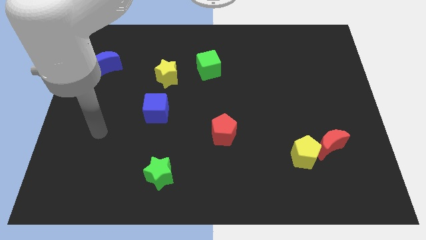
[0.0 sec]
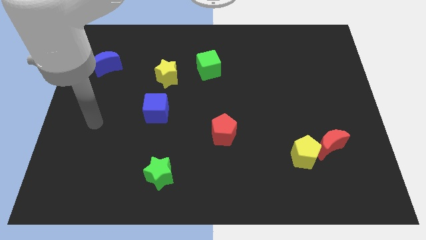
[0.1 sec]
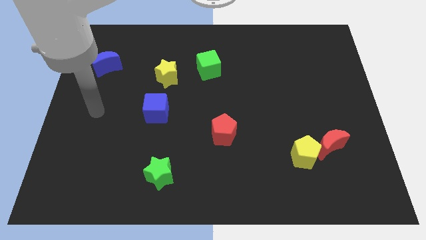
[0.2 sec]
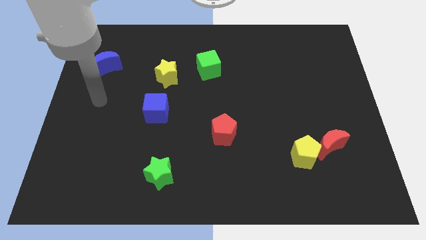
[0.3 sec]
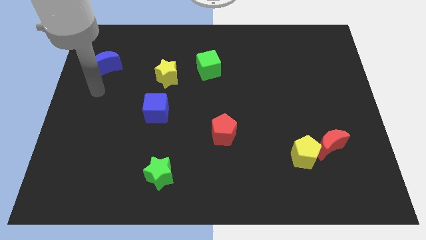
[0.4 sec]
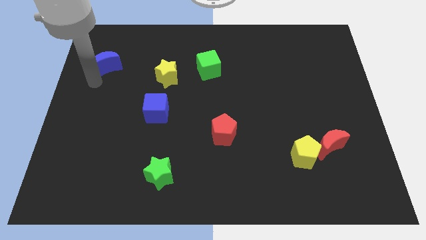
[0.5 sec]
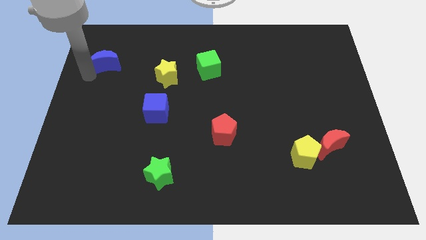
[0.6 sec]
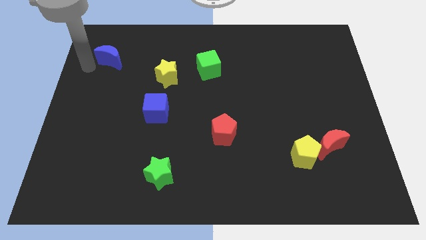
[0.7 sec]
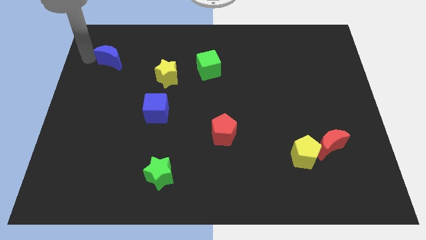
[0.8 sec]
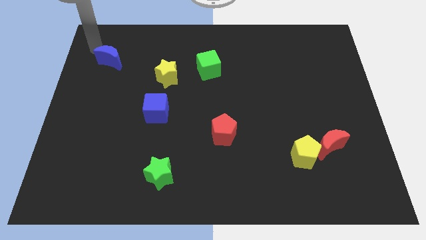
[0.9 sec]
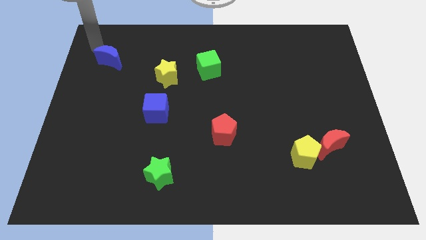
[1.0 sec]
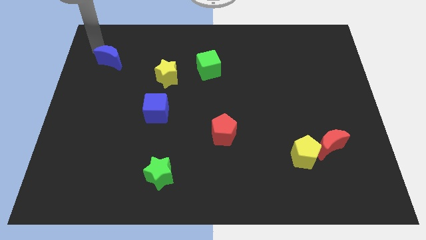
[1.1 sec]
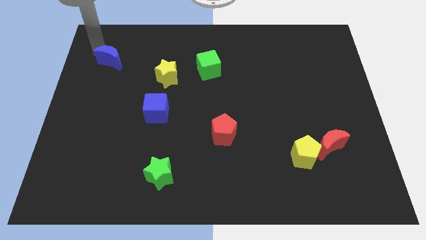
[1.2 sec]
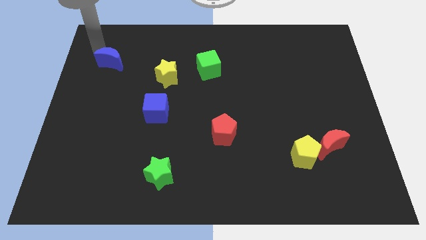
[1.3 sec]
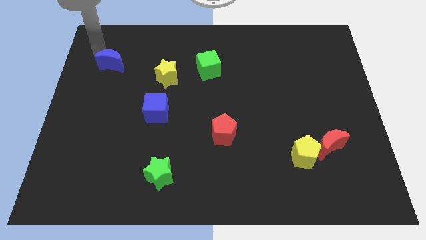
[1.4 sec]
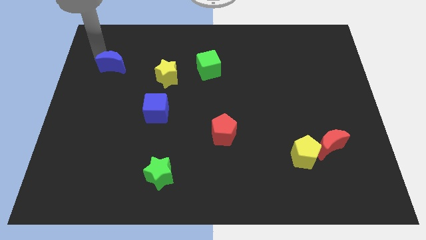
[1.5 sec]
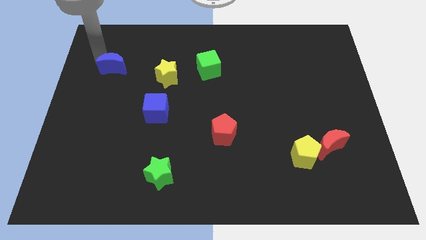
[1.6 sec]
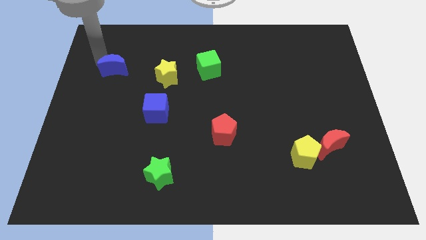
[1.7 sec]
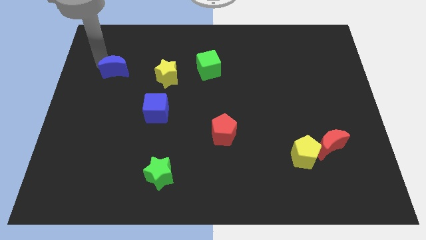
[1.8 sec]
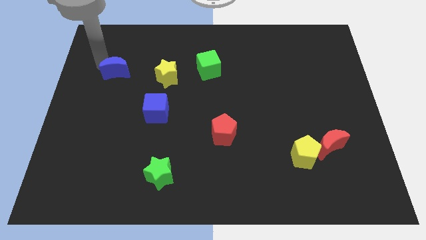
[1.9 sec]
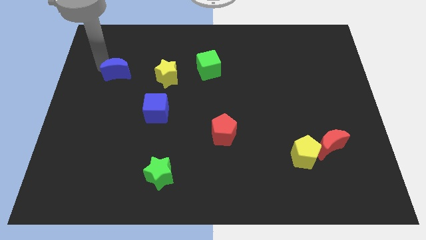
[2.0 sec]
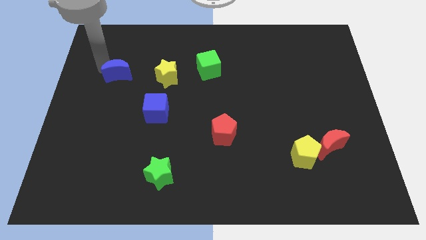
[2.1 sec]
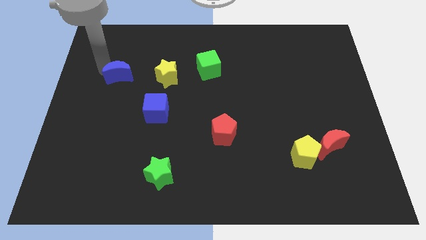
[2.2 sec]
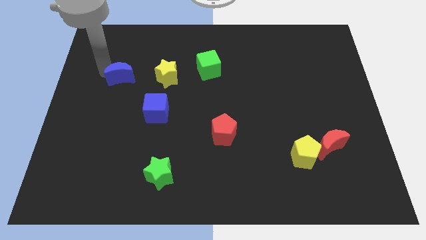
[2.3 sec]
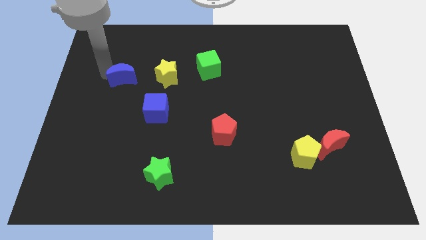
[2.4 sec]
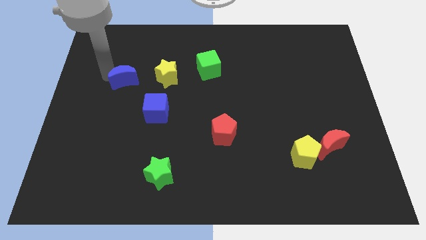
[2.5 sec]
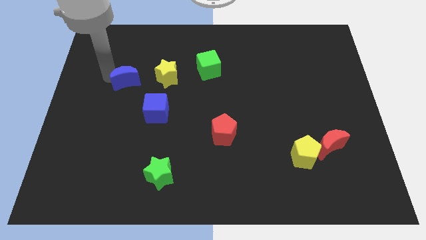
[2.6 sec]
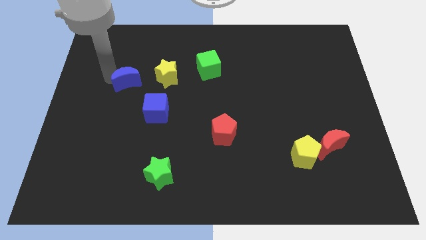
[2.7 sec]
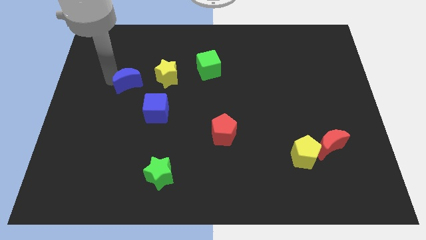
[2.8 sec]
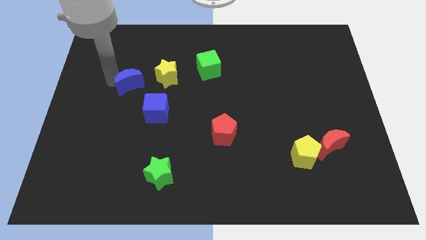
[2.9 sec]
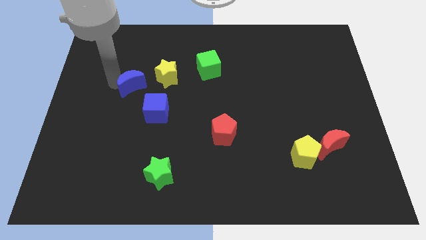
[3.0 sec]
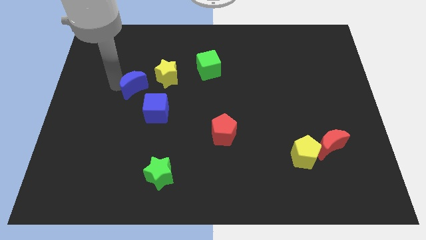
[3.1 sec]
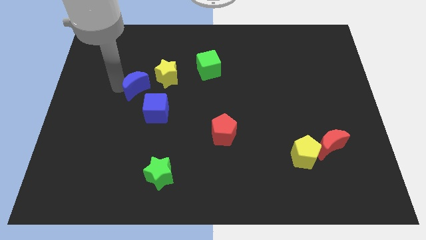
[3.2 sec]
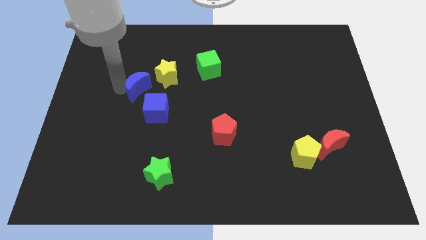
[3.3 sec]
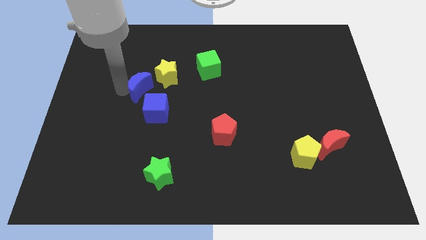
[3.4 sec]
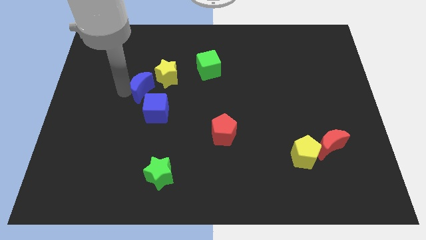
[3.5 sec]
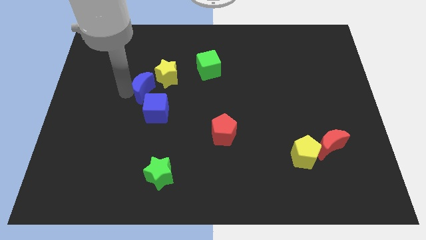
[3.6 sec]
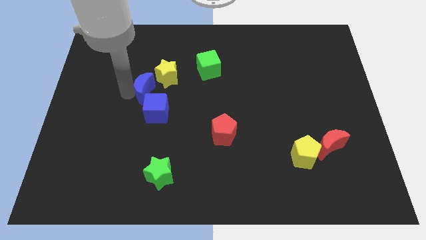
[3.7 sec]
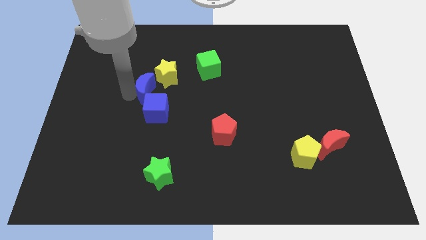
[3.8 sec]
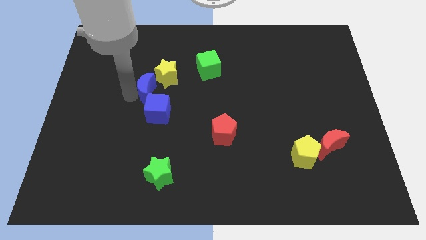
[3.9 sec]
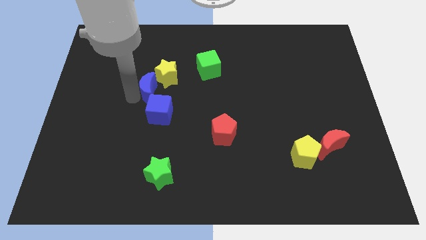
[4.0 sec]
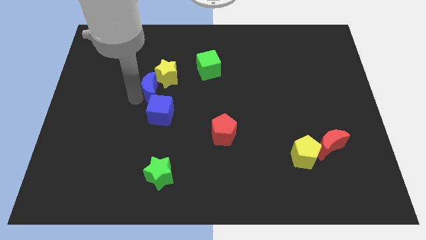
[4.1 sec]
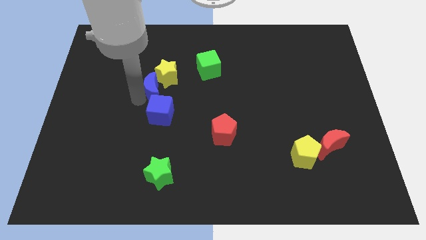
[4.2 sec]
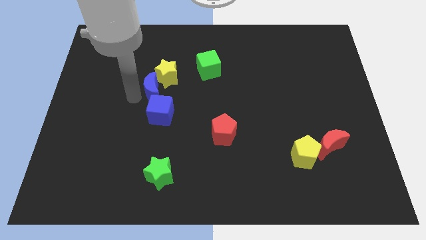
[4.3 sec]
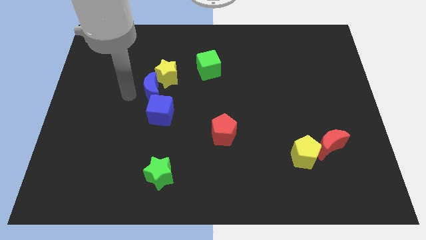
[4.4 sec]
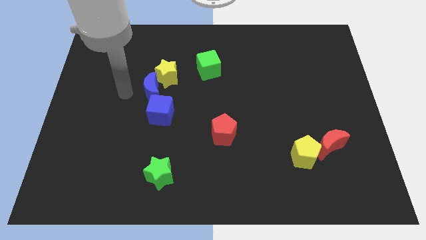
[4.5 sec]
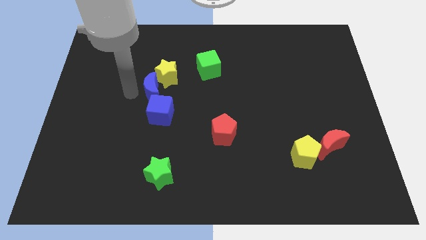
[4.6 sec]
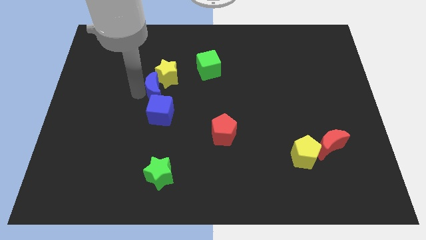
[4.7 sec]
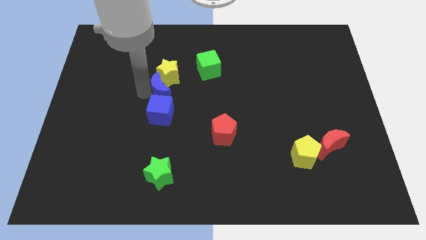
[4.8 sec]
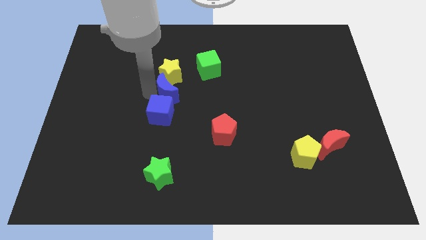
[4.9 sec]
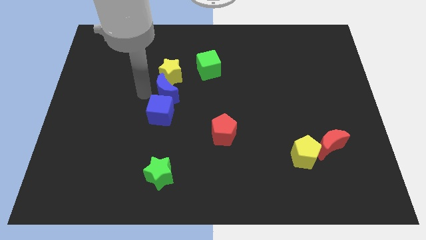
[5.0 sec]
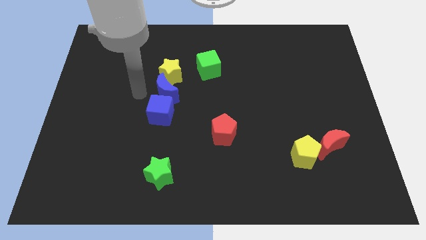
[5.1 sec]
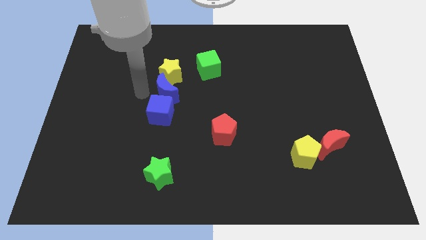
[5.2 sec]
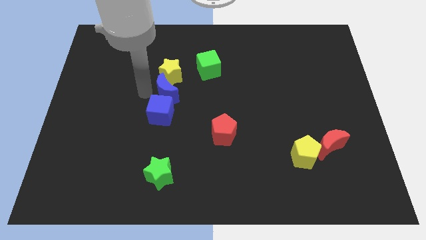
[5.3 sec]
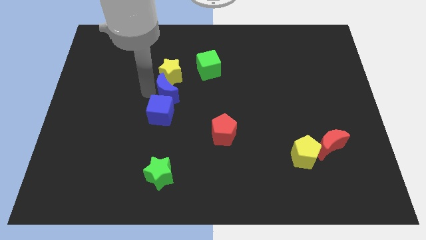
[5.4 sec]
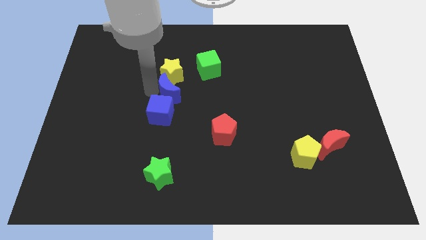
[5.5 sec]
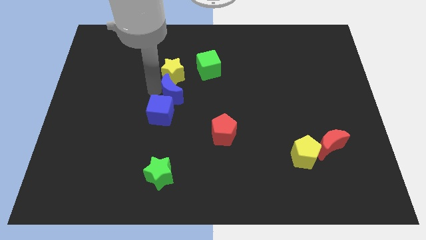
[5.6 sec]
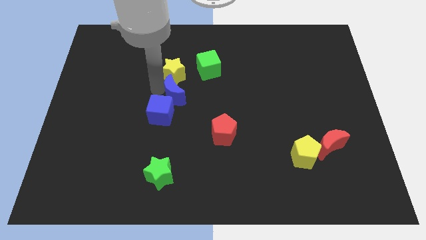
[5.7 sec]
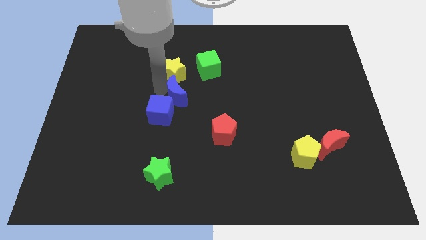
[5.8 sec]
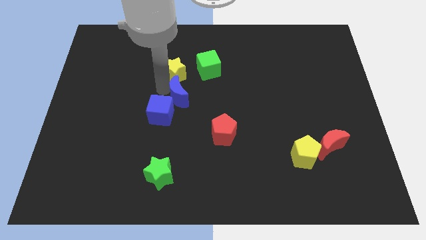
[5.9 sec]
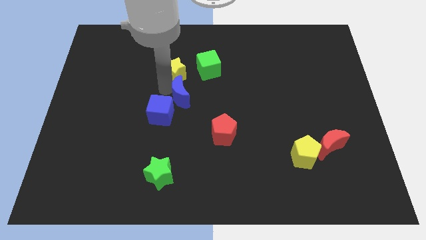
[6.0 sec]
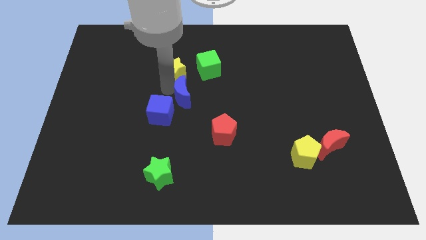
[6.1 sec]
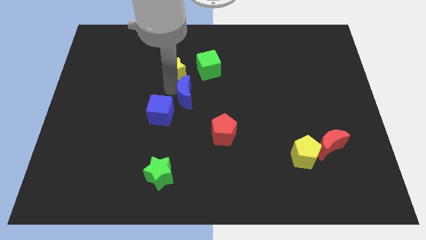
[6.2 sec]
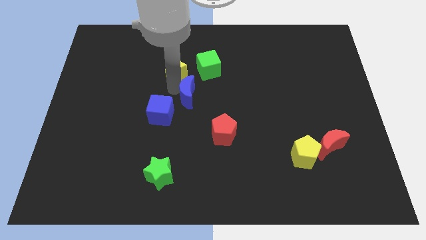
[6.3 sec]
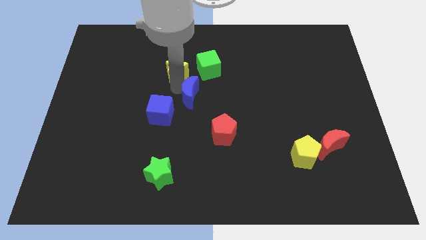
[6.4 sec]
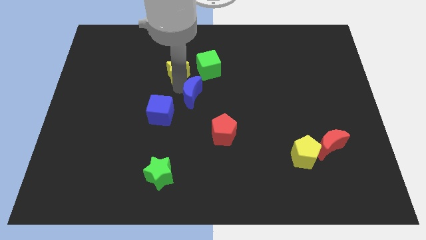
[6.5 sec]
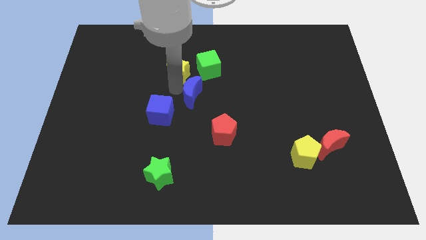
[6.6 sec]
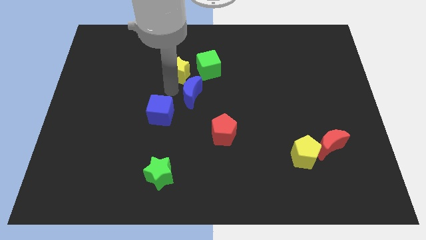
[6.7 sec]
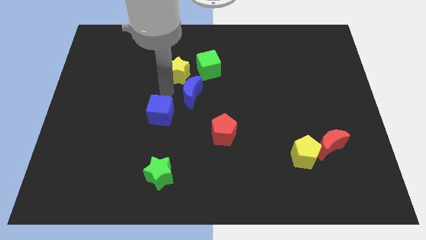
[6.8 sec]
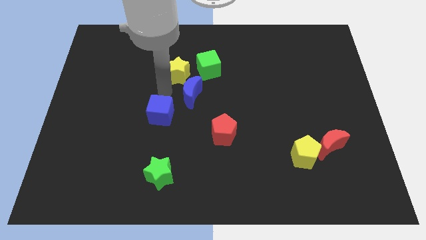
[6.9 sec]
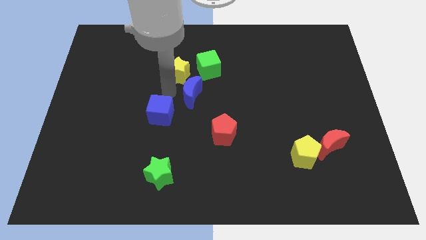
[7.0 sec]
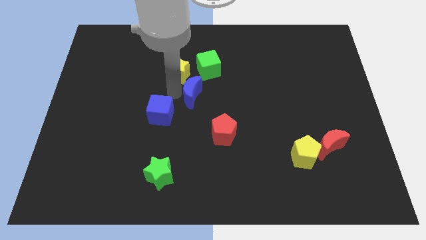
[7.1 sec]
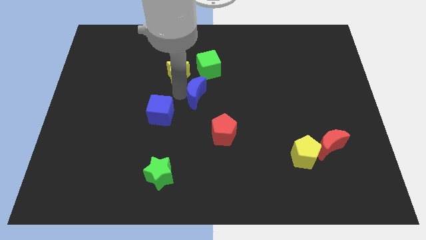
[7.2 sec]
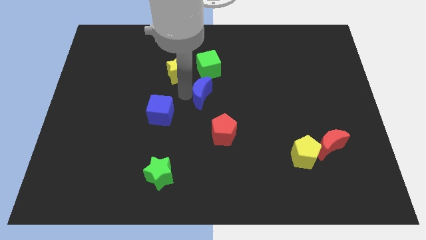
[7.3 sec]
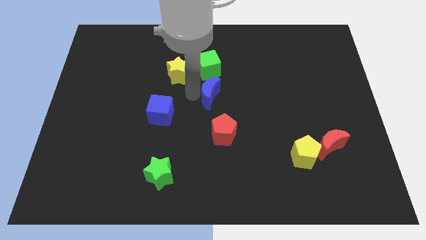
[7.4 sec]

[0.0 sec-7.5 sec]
move the blue moon to the top side of the red pentagon
